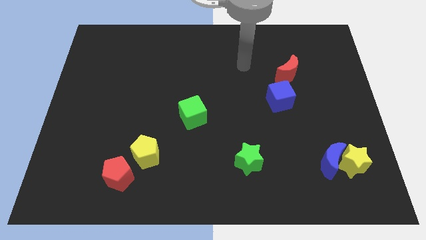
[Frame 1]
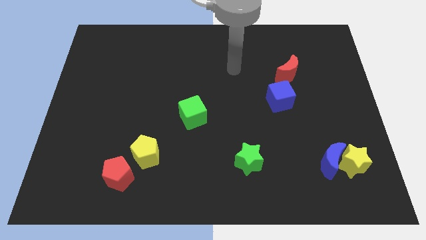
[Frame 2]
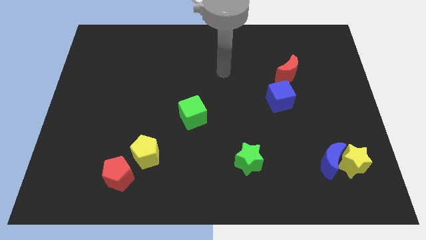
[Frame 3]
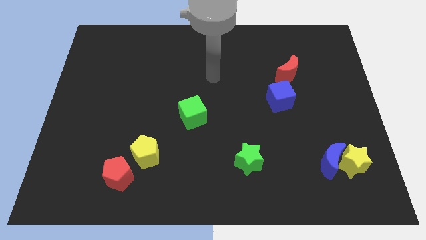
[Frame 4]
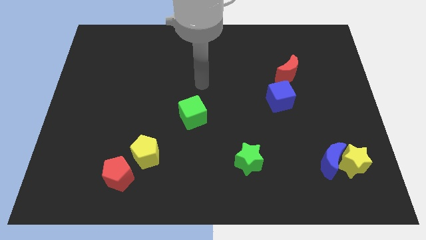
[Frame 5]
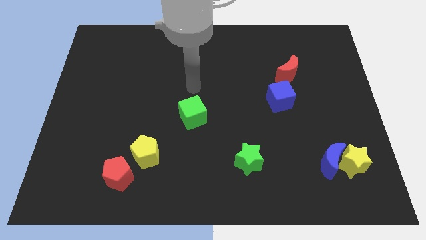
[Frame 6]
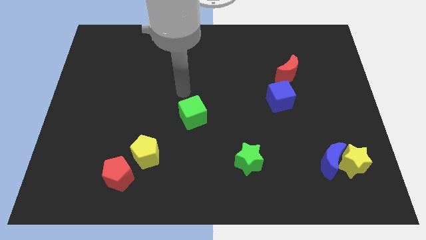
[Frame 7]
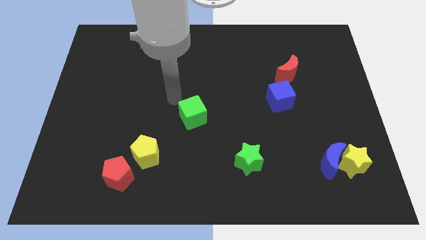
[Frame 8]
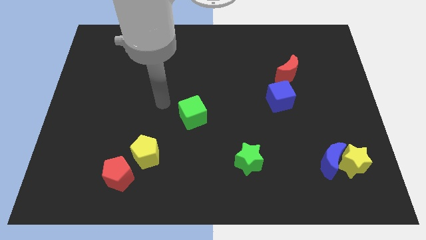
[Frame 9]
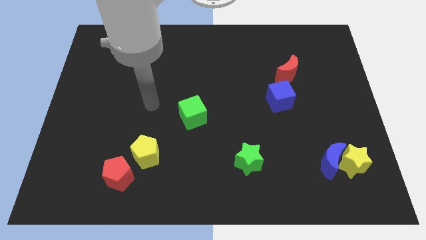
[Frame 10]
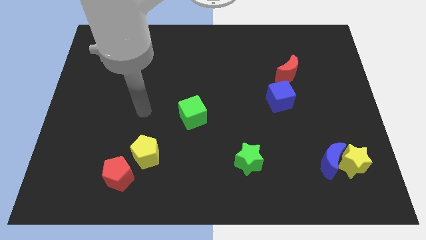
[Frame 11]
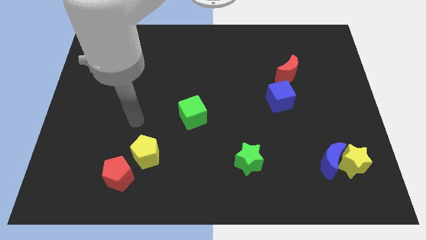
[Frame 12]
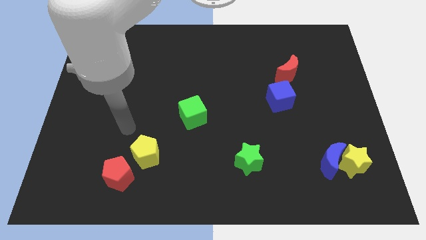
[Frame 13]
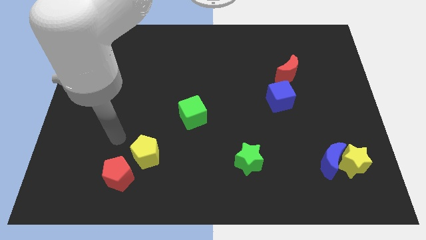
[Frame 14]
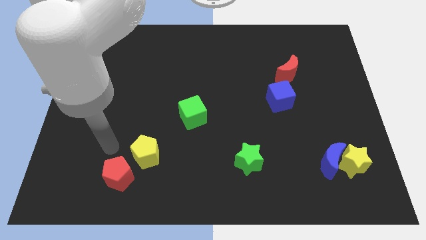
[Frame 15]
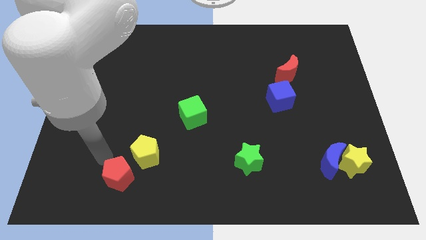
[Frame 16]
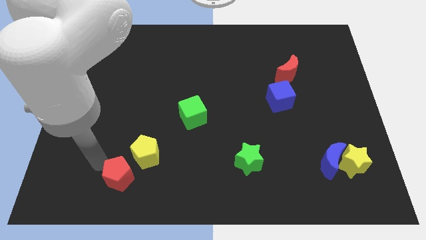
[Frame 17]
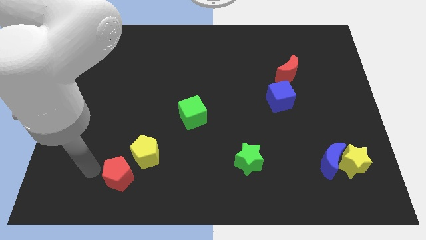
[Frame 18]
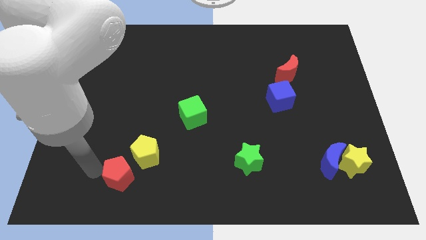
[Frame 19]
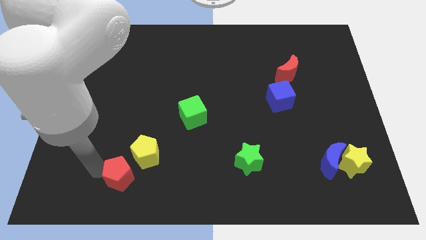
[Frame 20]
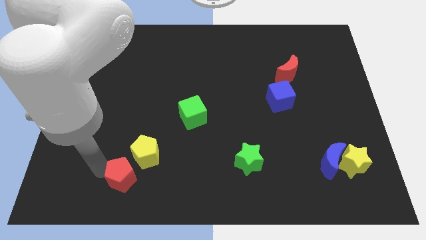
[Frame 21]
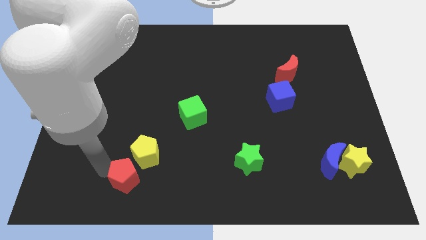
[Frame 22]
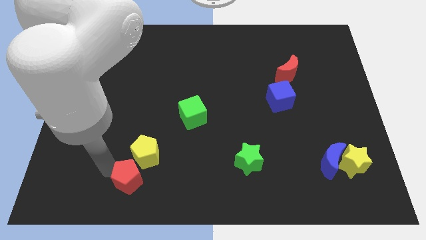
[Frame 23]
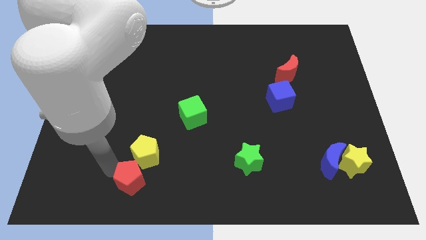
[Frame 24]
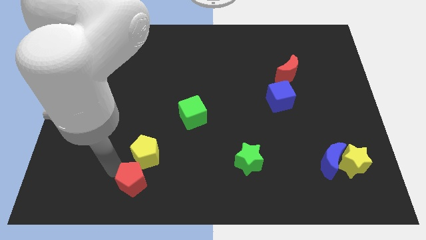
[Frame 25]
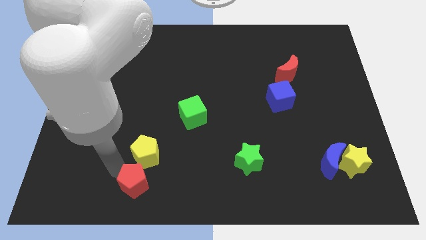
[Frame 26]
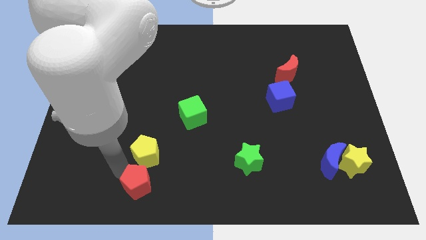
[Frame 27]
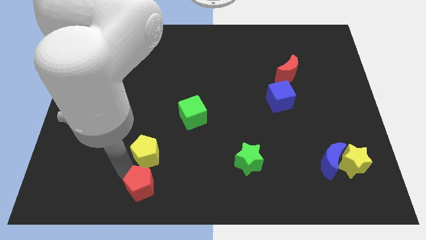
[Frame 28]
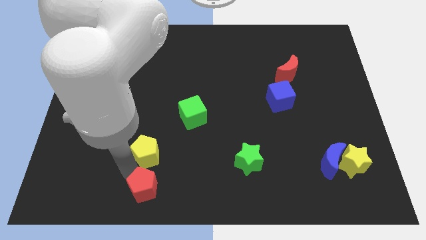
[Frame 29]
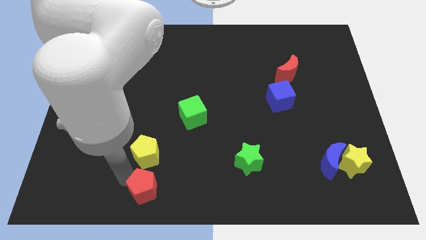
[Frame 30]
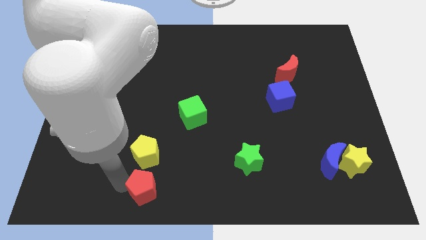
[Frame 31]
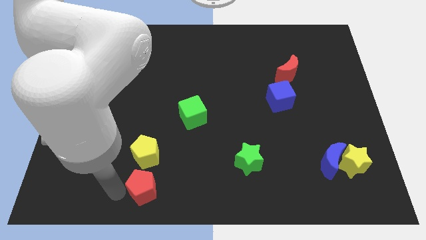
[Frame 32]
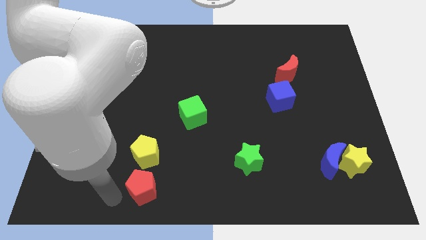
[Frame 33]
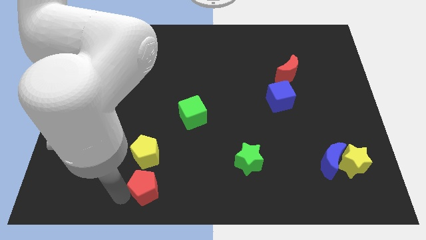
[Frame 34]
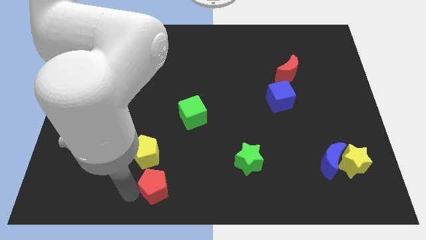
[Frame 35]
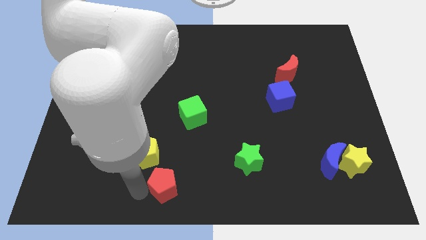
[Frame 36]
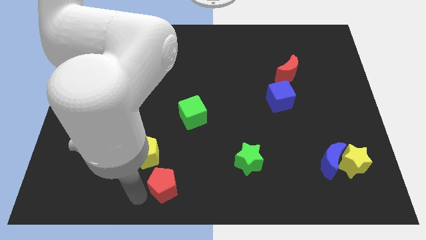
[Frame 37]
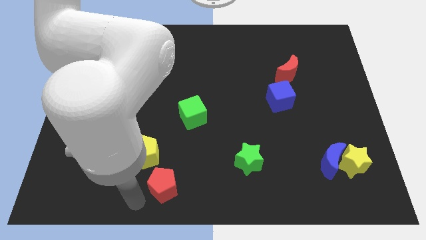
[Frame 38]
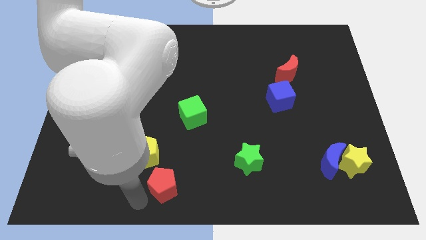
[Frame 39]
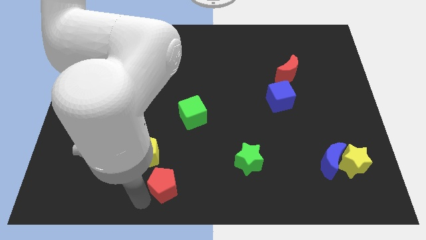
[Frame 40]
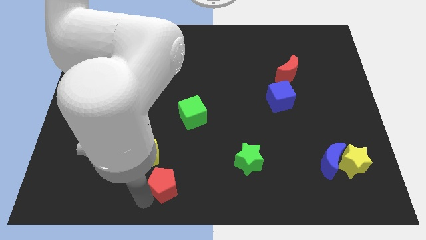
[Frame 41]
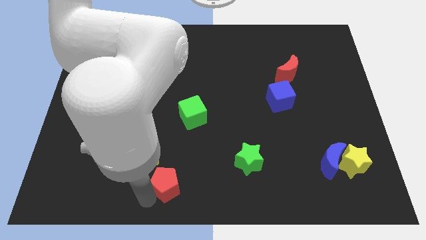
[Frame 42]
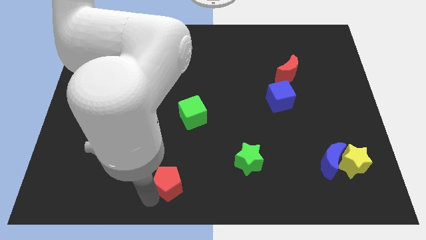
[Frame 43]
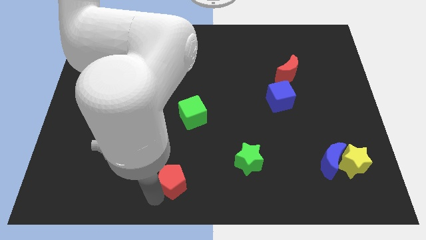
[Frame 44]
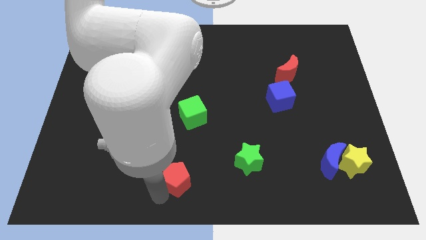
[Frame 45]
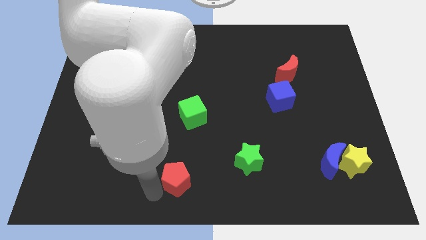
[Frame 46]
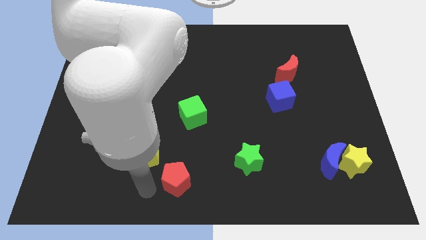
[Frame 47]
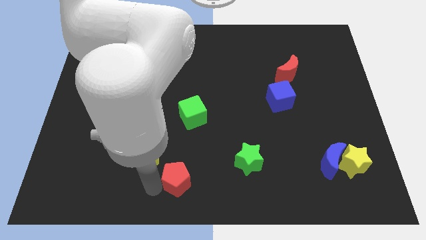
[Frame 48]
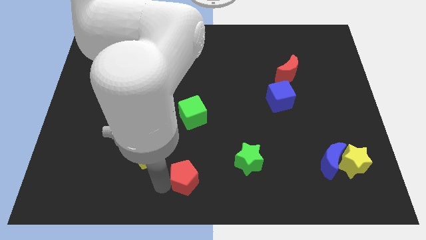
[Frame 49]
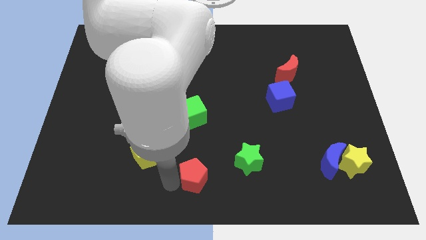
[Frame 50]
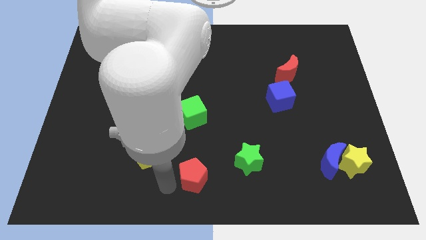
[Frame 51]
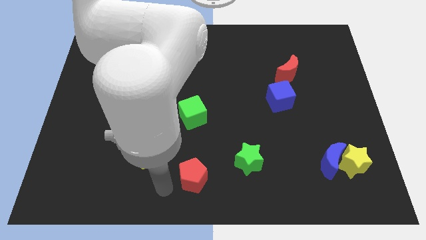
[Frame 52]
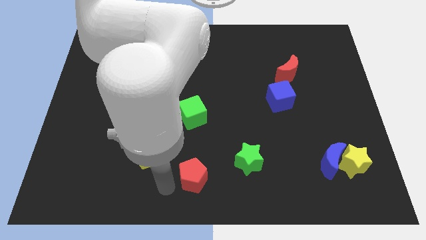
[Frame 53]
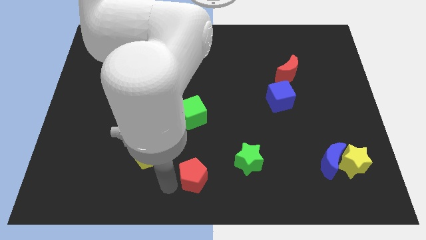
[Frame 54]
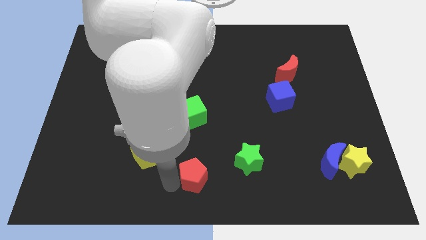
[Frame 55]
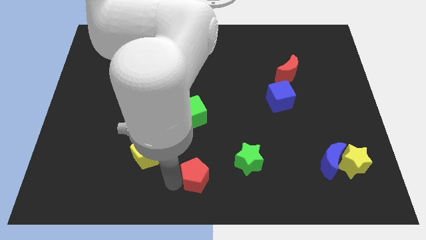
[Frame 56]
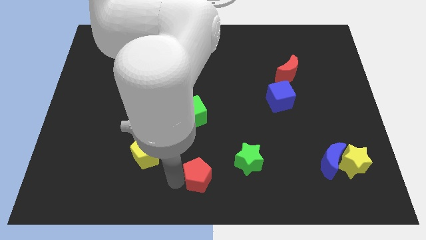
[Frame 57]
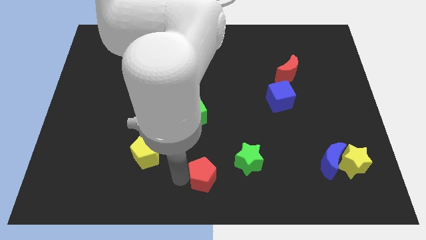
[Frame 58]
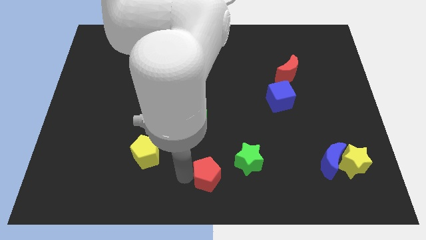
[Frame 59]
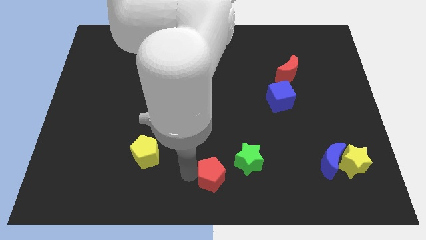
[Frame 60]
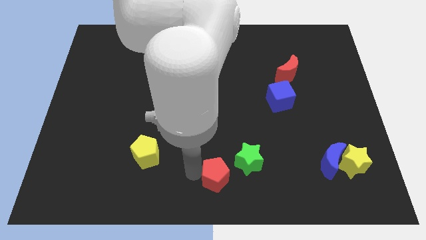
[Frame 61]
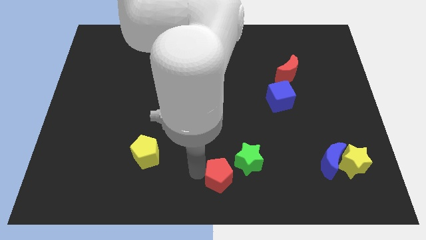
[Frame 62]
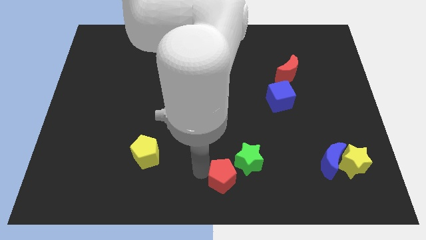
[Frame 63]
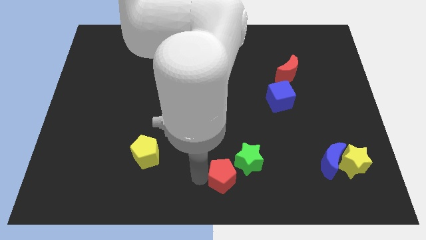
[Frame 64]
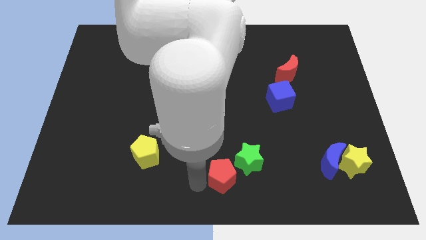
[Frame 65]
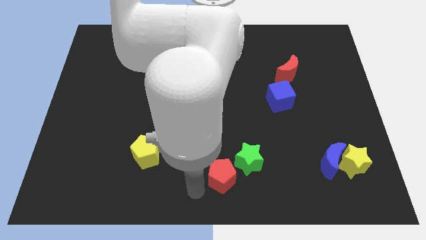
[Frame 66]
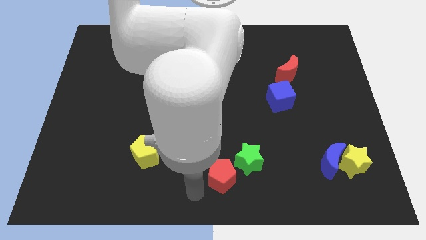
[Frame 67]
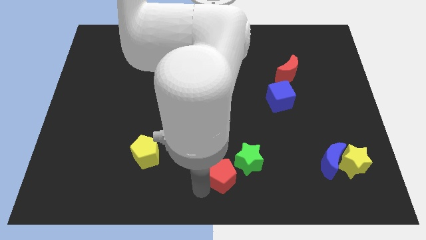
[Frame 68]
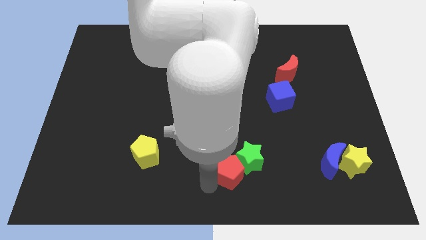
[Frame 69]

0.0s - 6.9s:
move the red pentagon towards the green star

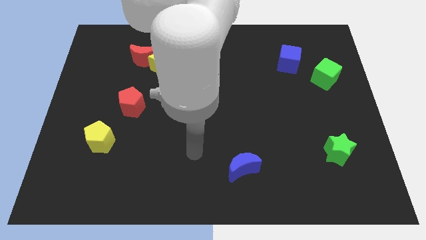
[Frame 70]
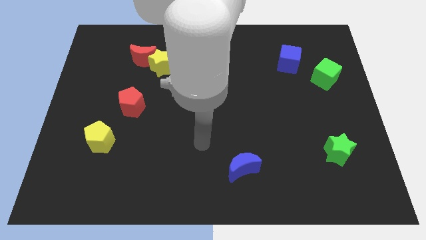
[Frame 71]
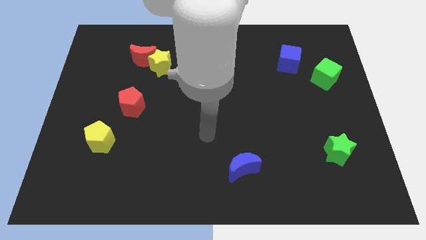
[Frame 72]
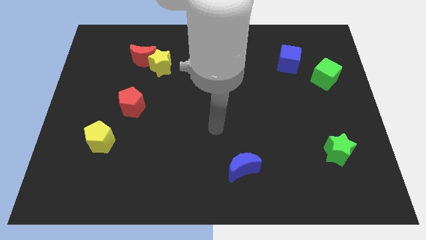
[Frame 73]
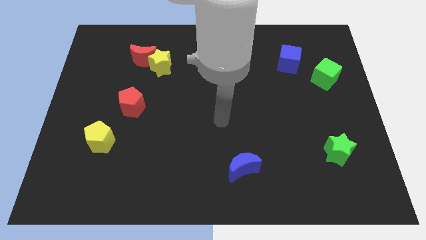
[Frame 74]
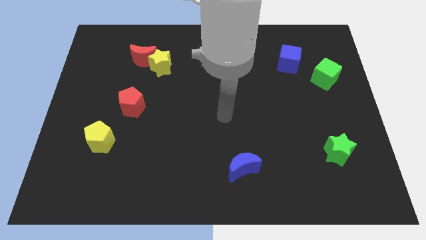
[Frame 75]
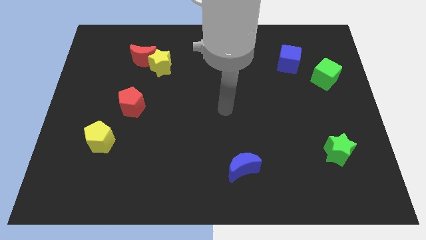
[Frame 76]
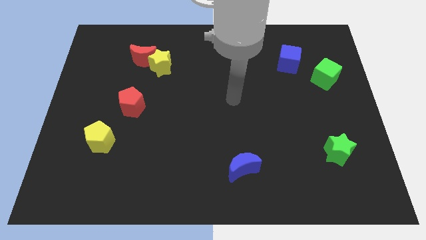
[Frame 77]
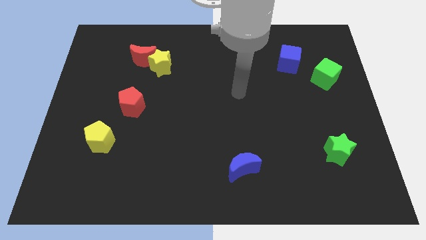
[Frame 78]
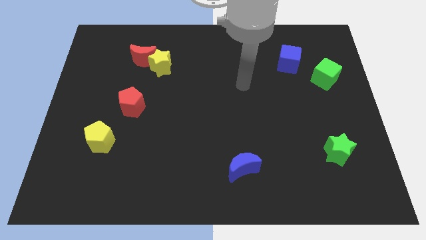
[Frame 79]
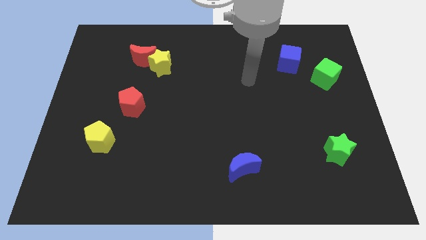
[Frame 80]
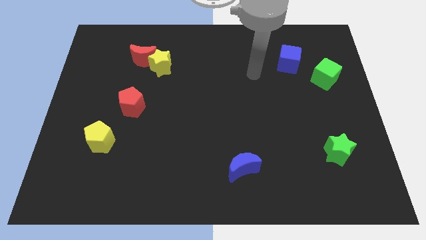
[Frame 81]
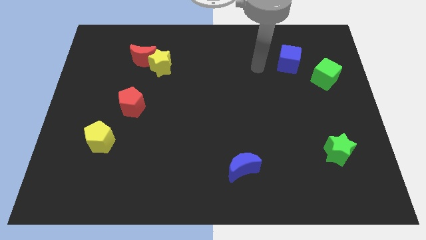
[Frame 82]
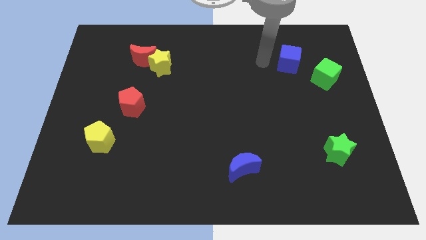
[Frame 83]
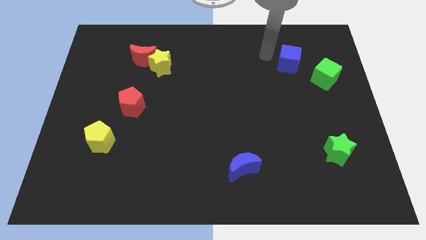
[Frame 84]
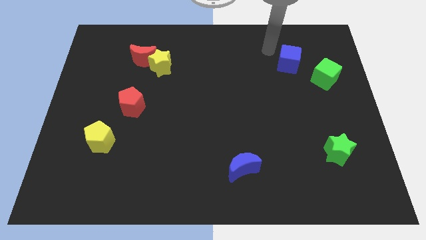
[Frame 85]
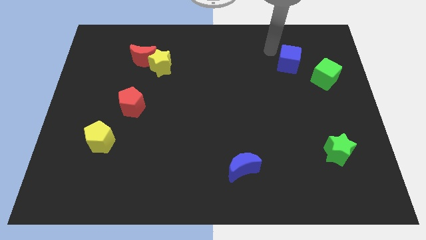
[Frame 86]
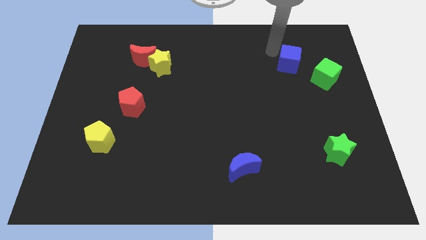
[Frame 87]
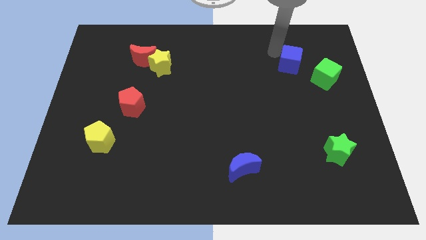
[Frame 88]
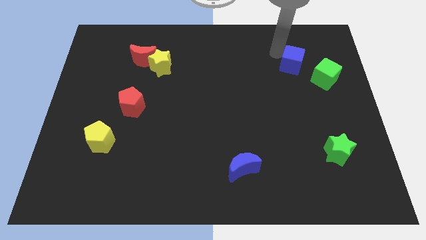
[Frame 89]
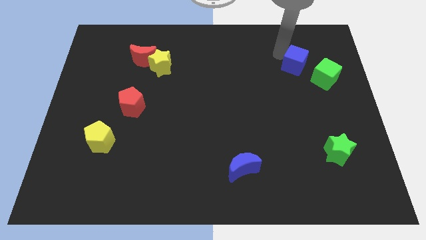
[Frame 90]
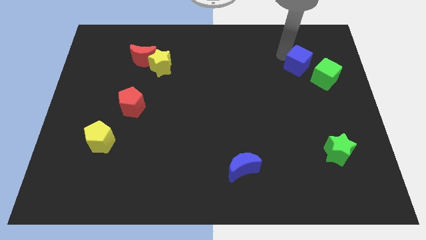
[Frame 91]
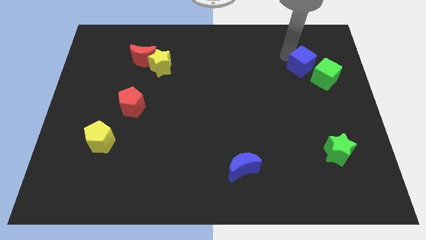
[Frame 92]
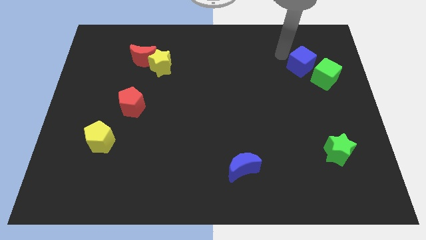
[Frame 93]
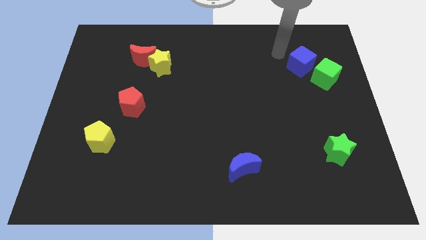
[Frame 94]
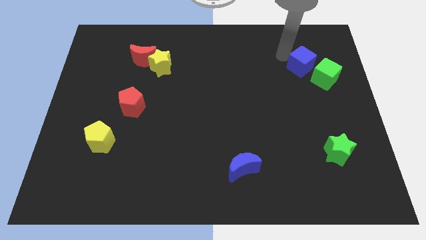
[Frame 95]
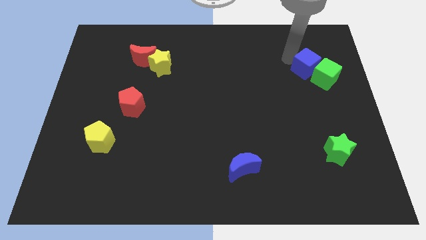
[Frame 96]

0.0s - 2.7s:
slide the blue cube close to the green cube
